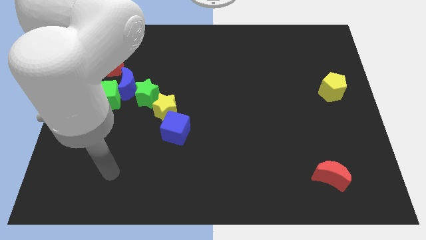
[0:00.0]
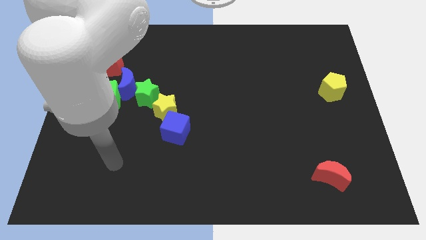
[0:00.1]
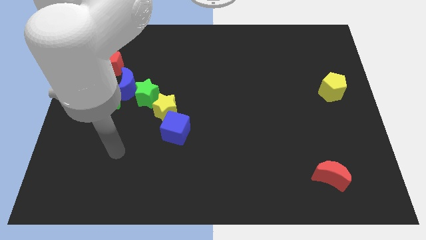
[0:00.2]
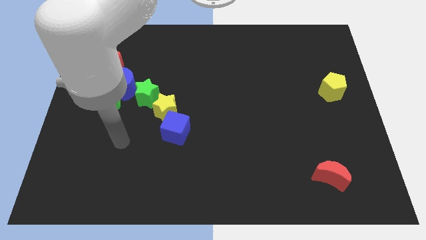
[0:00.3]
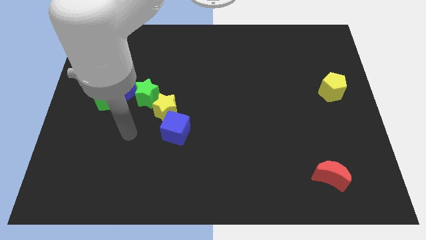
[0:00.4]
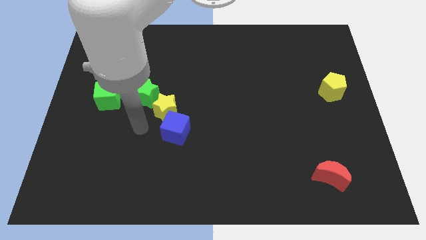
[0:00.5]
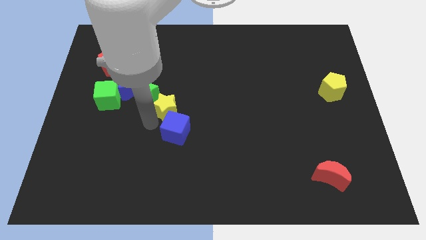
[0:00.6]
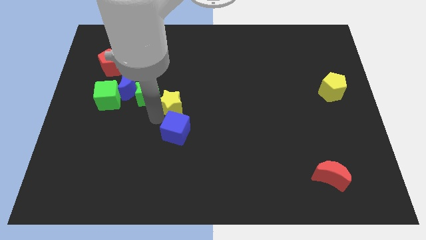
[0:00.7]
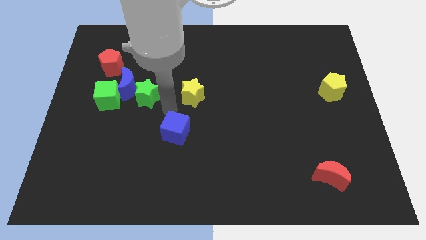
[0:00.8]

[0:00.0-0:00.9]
separate the blue cube from the yellow star

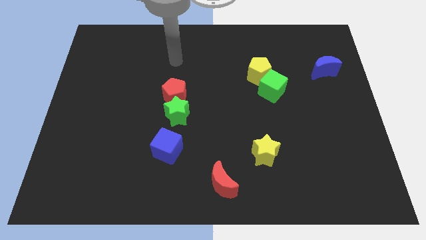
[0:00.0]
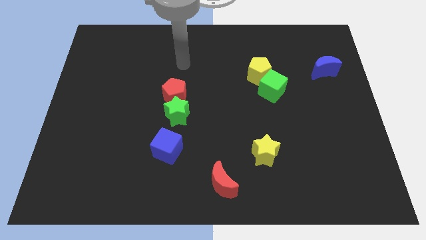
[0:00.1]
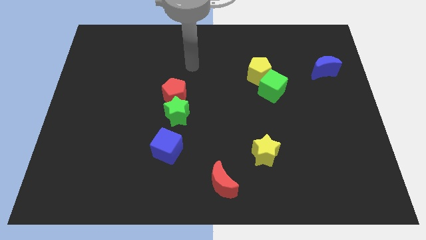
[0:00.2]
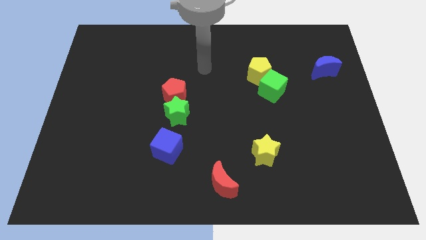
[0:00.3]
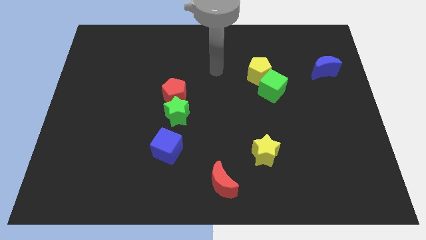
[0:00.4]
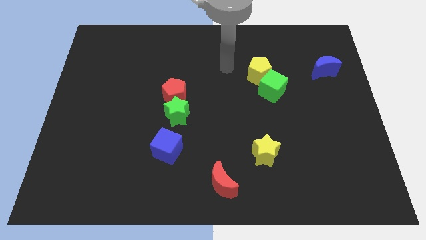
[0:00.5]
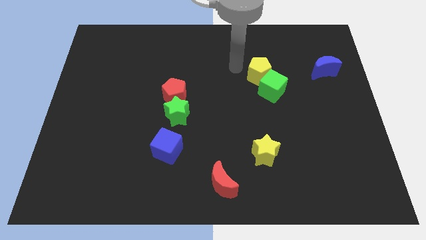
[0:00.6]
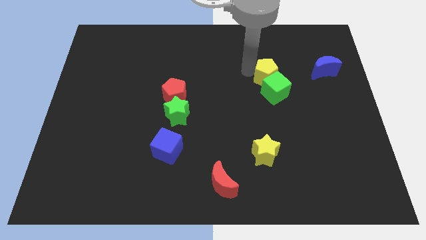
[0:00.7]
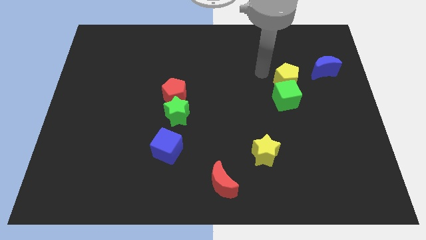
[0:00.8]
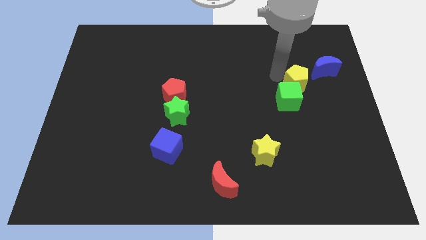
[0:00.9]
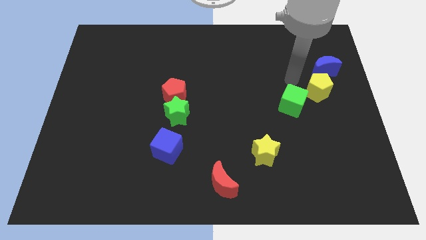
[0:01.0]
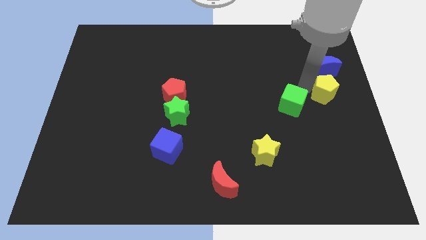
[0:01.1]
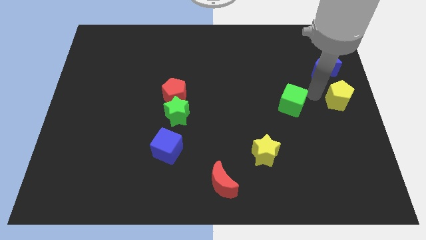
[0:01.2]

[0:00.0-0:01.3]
move the green cube away from the yellow pentagon

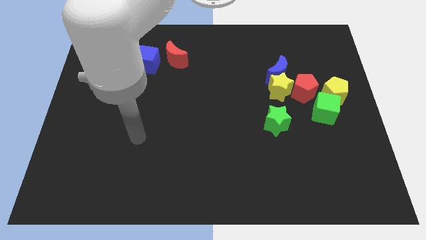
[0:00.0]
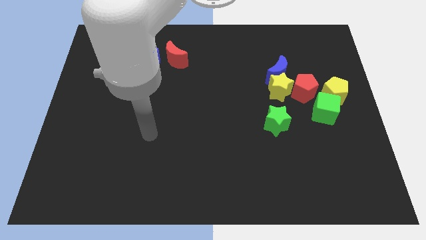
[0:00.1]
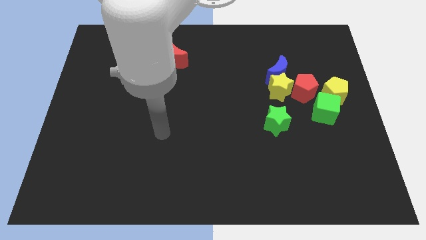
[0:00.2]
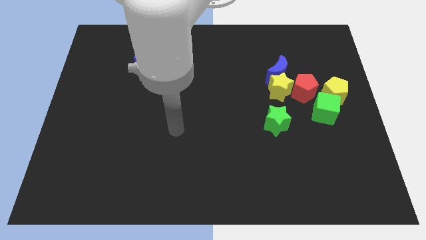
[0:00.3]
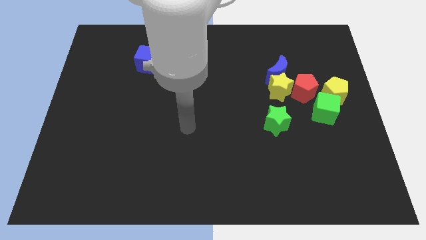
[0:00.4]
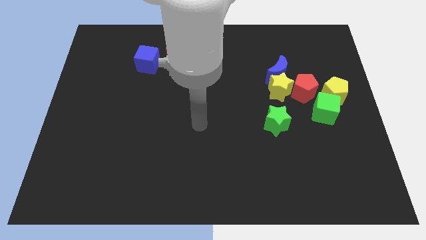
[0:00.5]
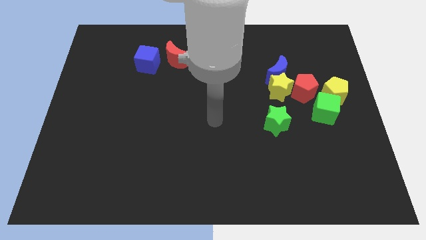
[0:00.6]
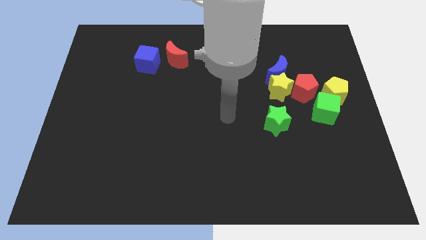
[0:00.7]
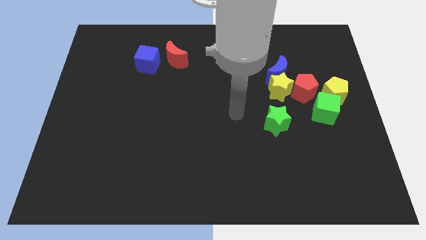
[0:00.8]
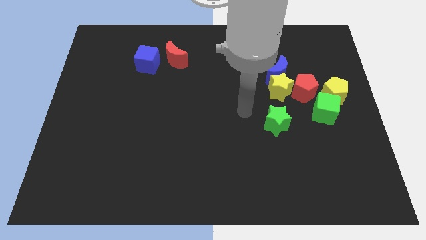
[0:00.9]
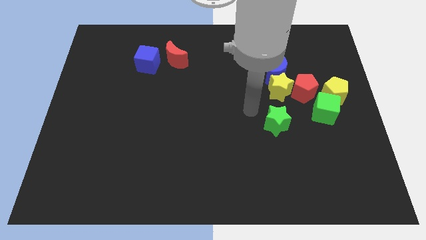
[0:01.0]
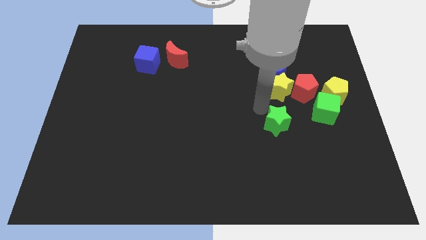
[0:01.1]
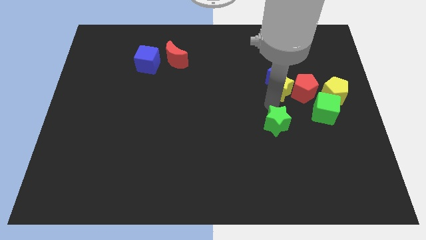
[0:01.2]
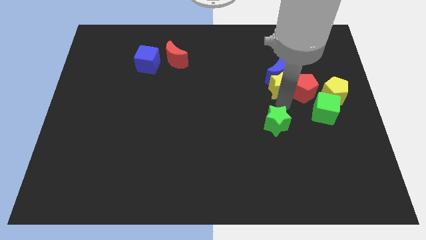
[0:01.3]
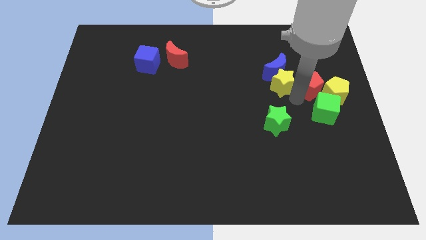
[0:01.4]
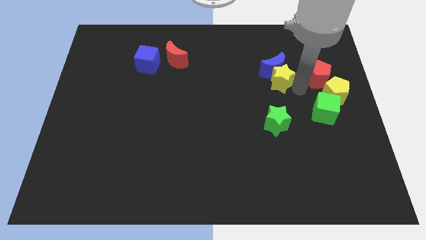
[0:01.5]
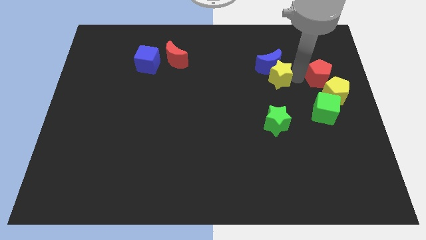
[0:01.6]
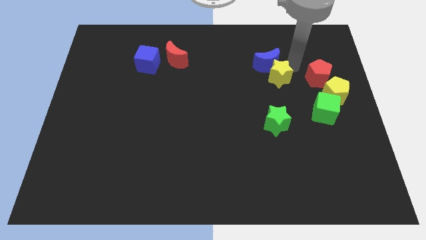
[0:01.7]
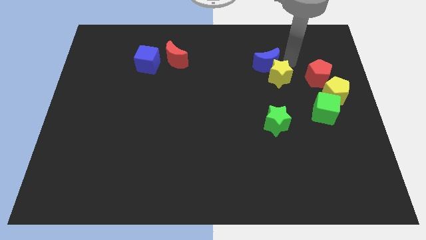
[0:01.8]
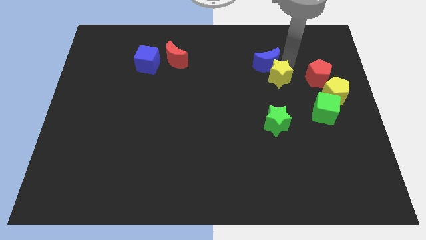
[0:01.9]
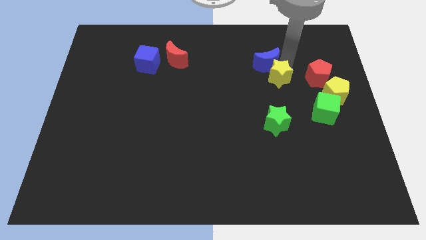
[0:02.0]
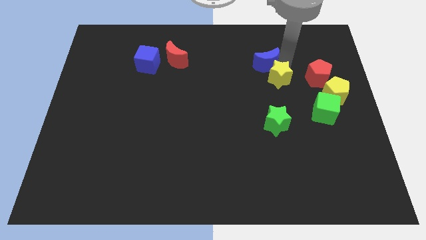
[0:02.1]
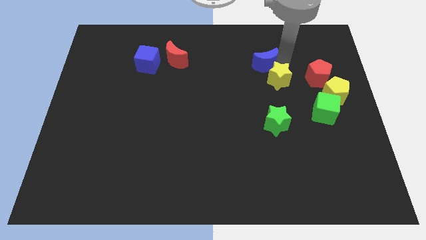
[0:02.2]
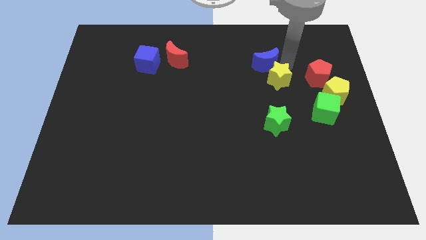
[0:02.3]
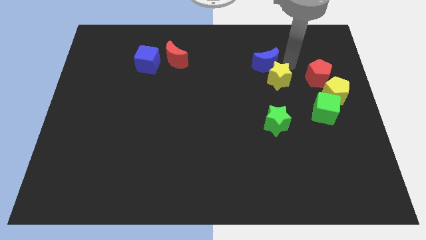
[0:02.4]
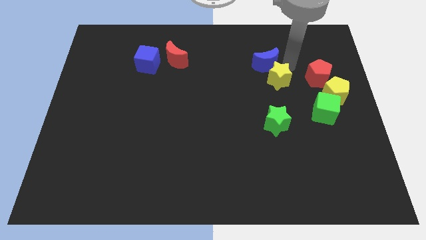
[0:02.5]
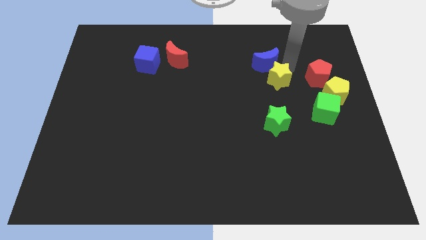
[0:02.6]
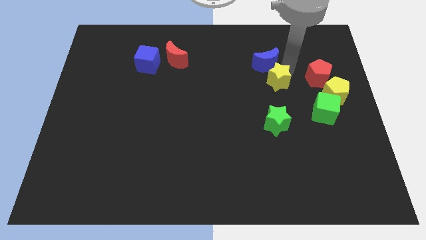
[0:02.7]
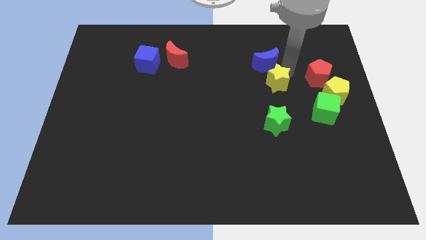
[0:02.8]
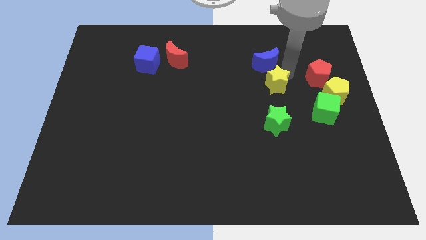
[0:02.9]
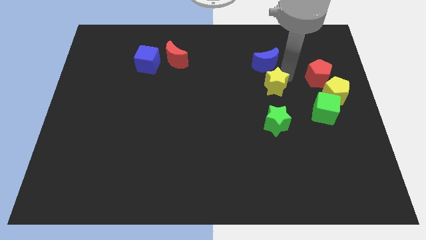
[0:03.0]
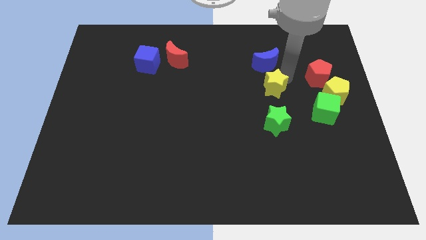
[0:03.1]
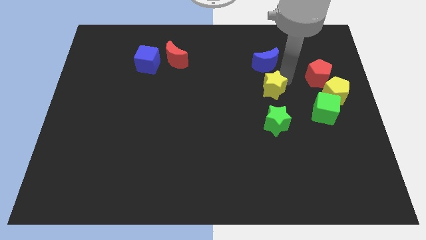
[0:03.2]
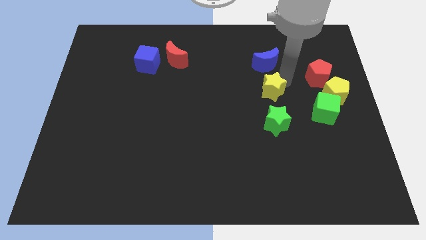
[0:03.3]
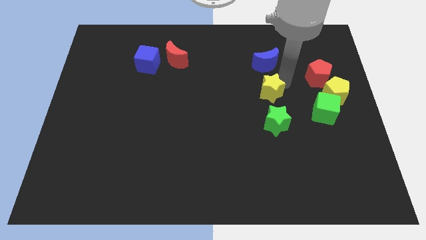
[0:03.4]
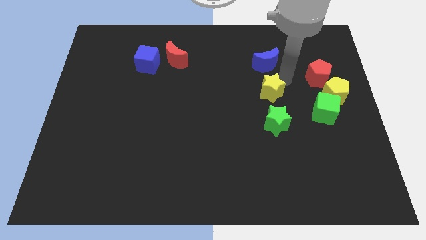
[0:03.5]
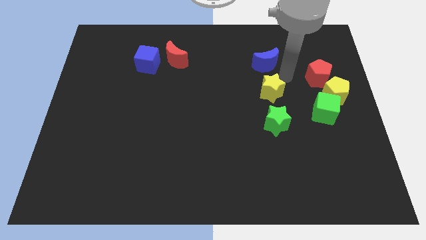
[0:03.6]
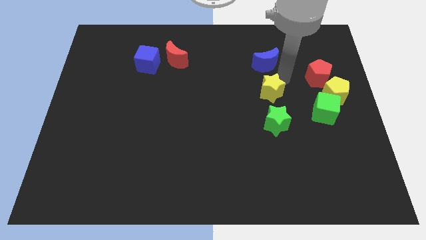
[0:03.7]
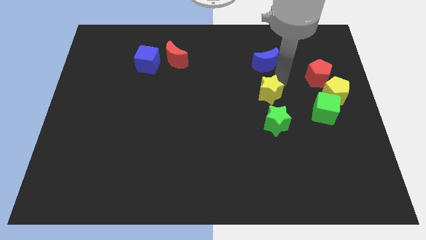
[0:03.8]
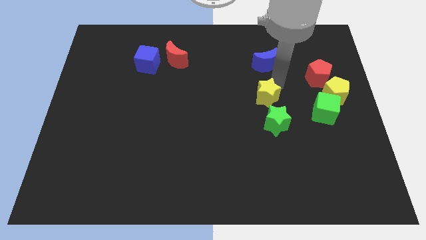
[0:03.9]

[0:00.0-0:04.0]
pull the yellow star apart from the blue moon and red pentagon

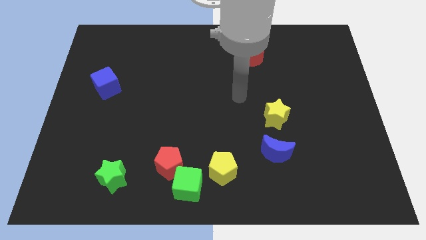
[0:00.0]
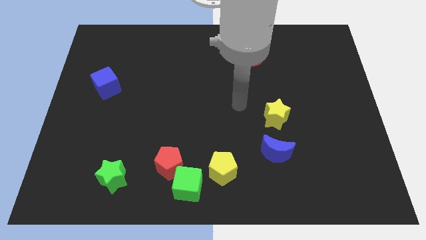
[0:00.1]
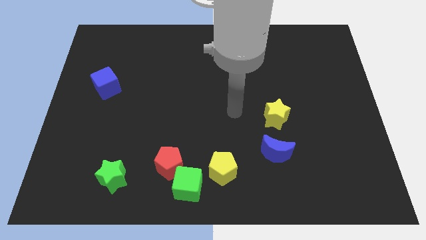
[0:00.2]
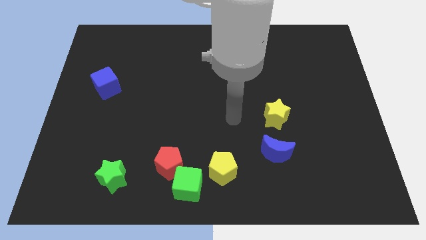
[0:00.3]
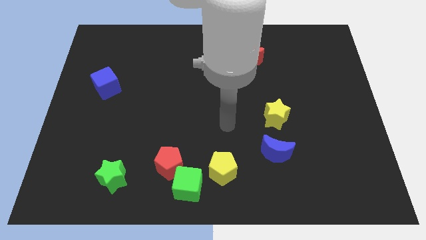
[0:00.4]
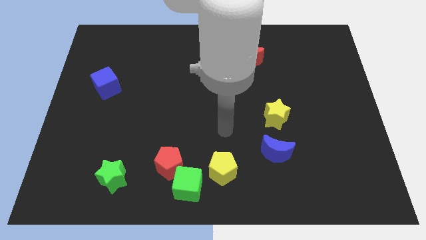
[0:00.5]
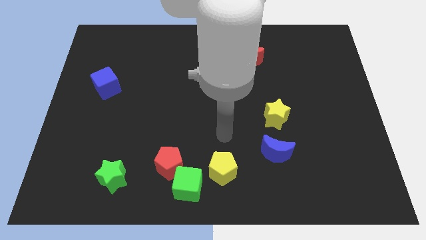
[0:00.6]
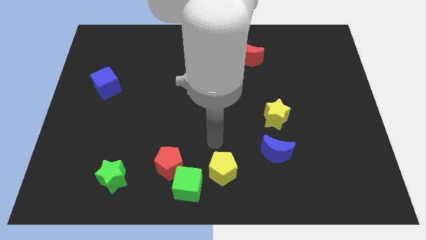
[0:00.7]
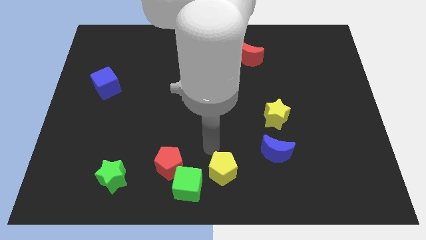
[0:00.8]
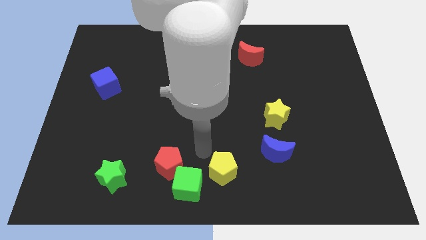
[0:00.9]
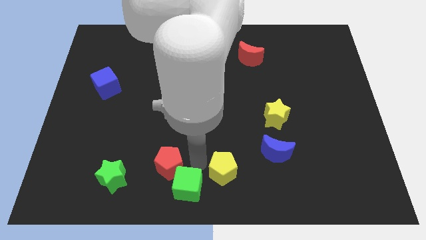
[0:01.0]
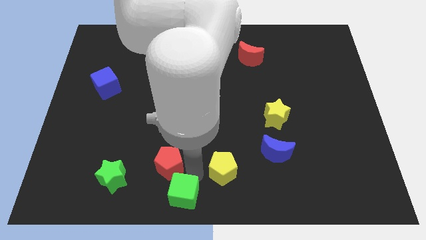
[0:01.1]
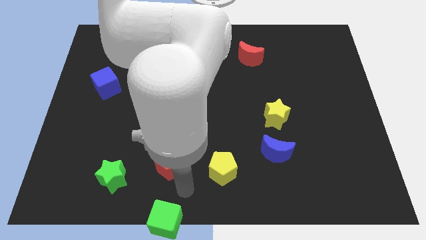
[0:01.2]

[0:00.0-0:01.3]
move the red pentagon away from the green cube

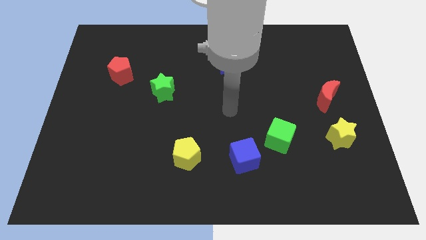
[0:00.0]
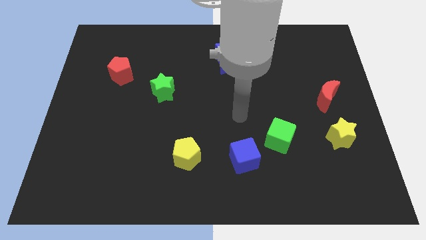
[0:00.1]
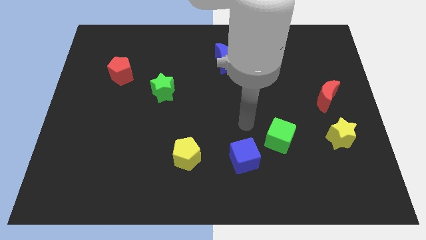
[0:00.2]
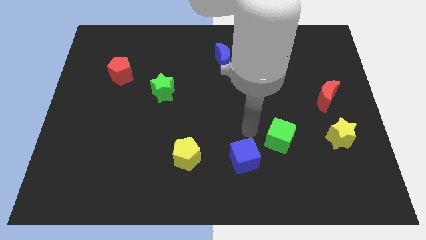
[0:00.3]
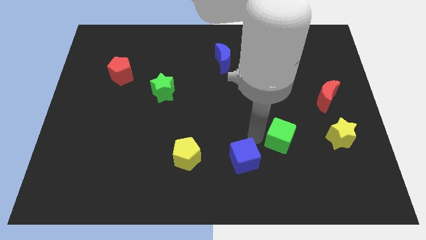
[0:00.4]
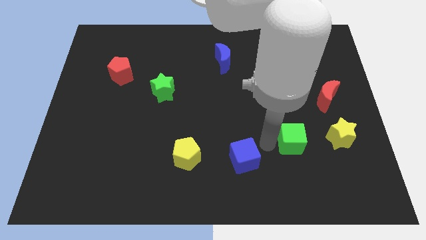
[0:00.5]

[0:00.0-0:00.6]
move the blue cube away from the green cube

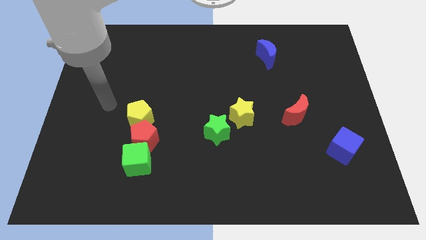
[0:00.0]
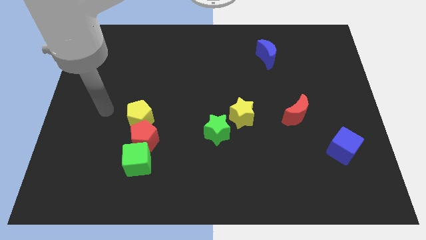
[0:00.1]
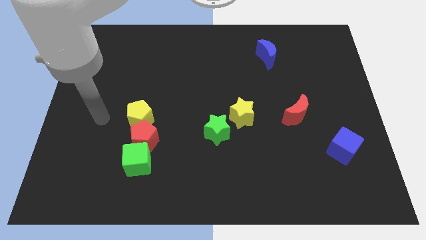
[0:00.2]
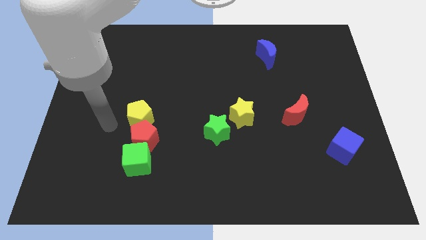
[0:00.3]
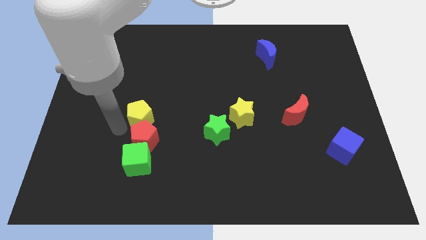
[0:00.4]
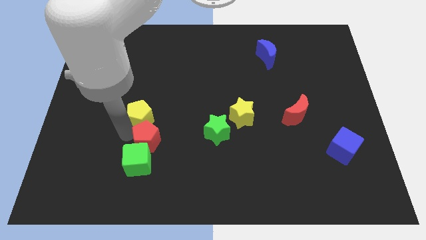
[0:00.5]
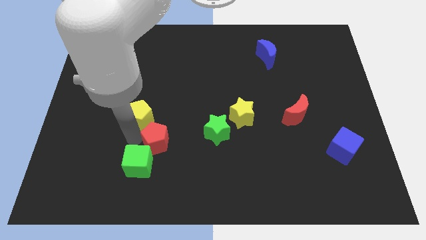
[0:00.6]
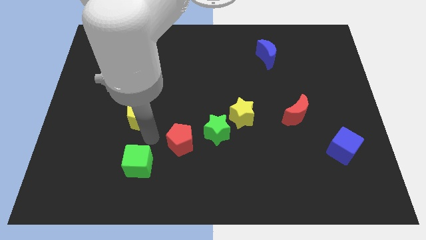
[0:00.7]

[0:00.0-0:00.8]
move the yellow pentagon away from the red pentagon

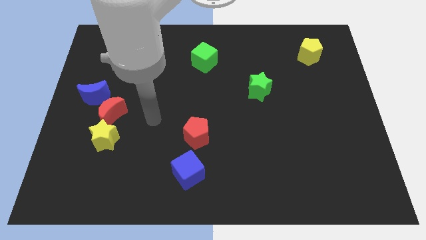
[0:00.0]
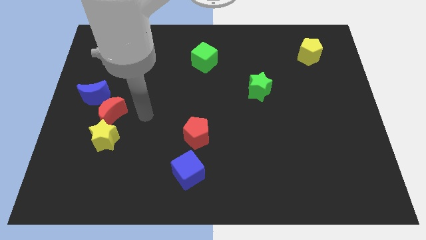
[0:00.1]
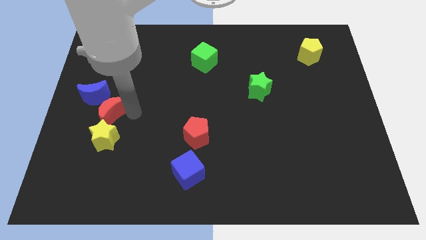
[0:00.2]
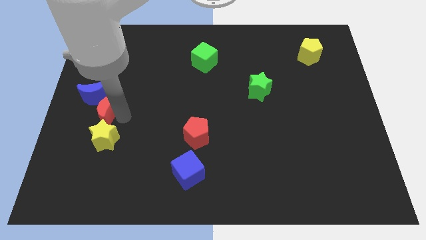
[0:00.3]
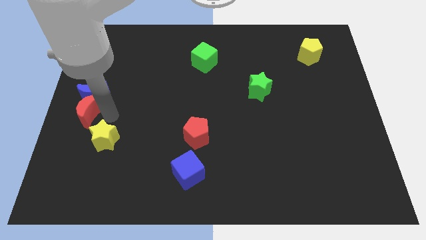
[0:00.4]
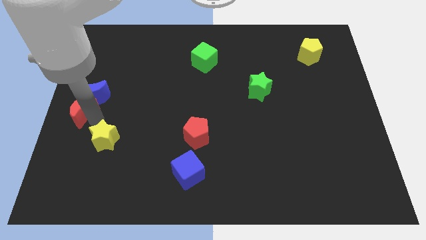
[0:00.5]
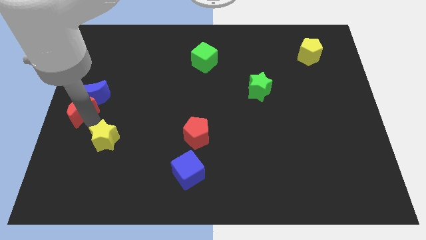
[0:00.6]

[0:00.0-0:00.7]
separate the yellow star from the red moon
